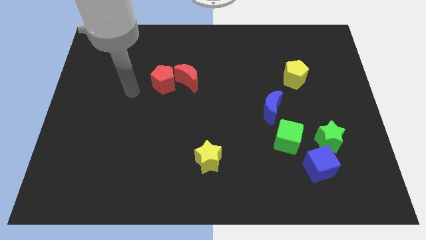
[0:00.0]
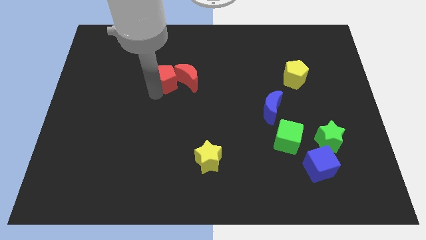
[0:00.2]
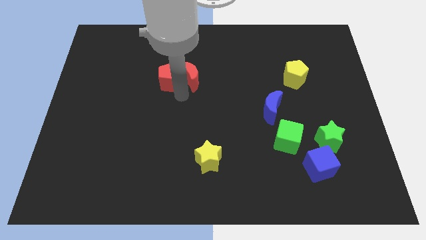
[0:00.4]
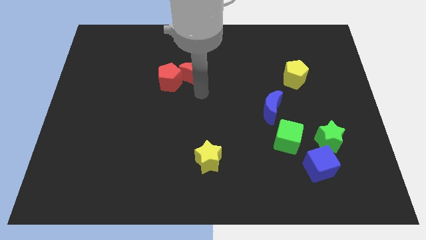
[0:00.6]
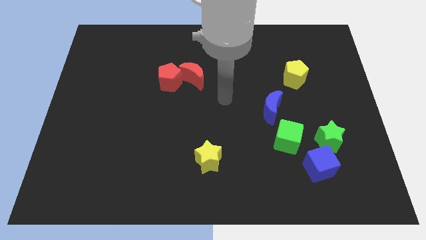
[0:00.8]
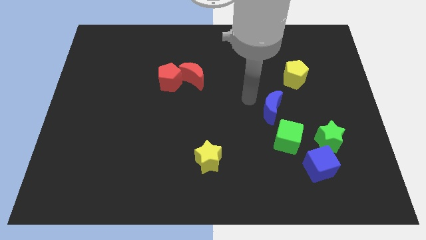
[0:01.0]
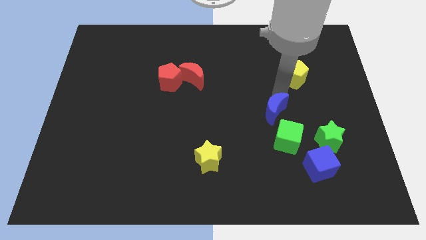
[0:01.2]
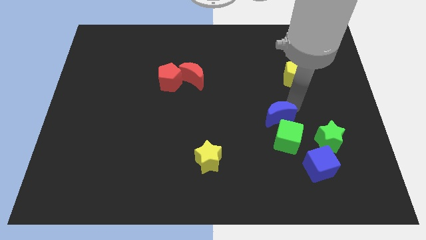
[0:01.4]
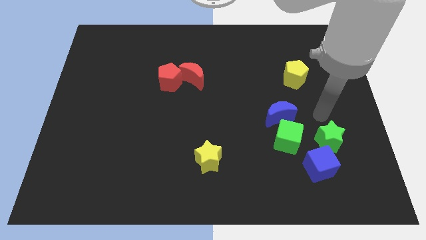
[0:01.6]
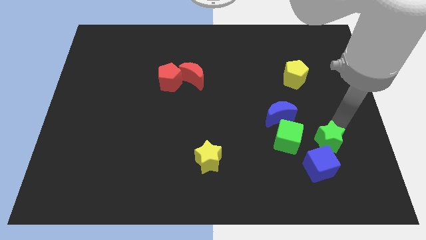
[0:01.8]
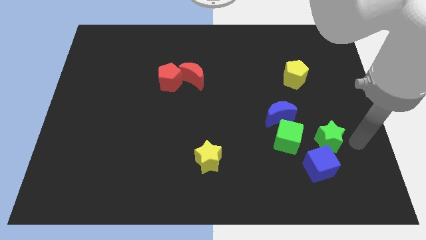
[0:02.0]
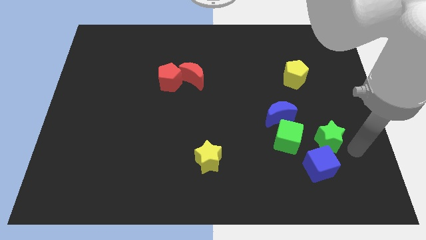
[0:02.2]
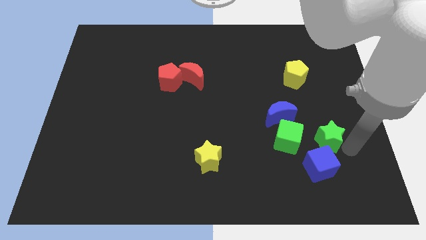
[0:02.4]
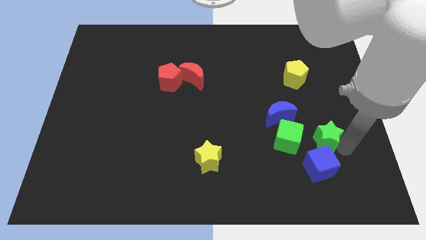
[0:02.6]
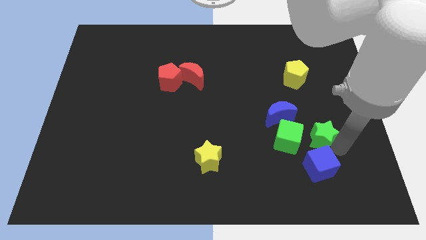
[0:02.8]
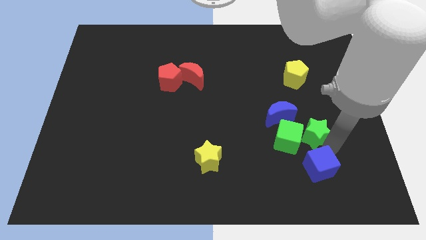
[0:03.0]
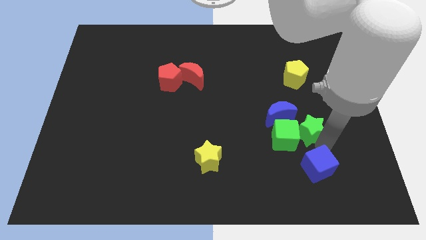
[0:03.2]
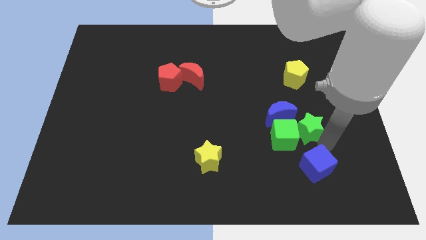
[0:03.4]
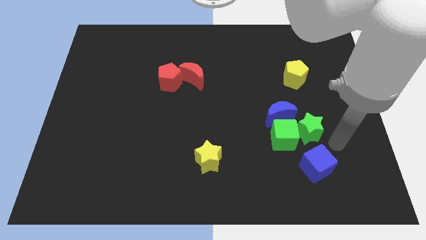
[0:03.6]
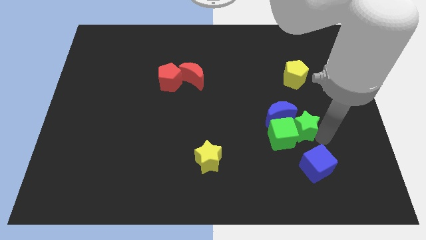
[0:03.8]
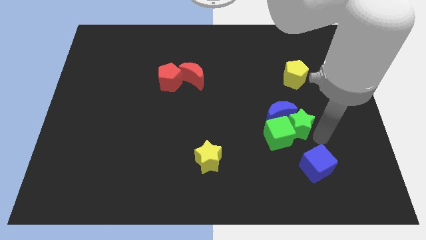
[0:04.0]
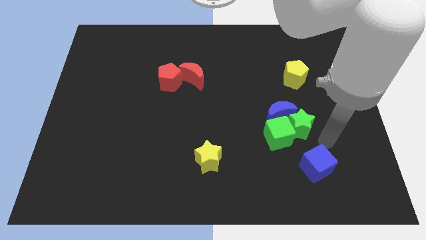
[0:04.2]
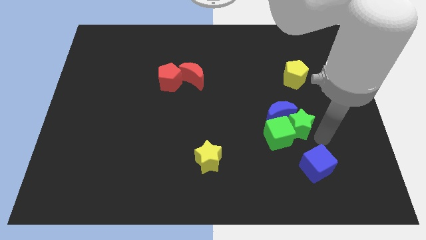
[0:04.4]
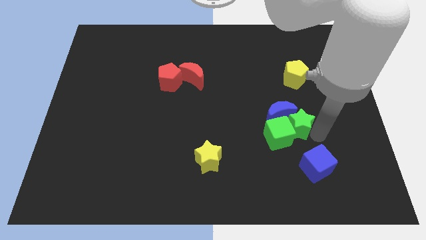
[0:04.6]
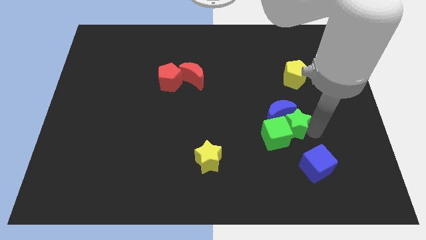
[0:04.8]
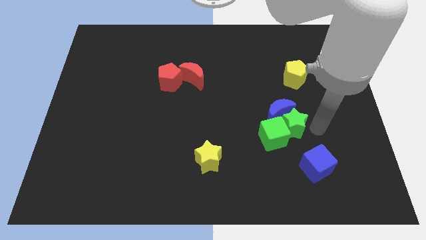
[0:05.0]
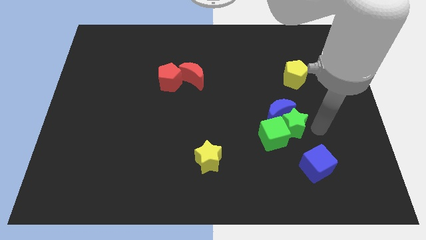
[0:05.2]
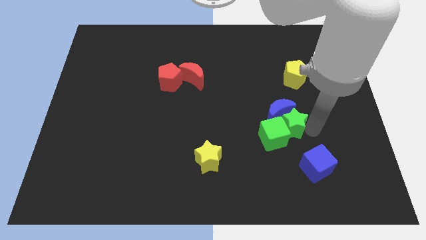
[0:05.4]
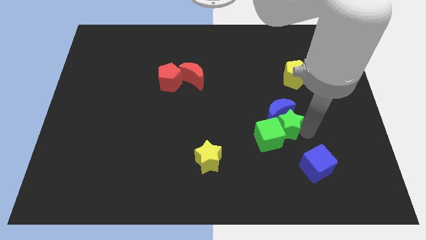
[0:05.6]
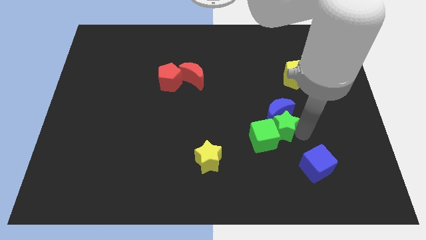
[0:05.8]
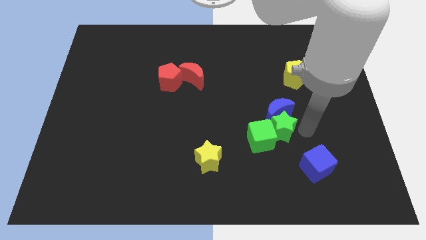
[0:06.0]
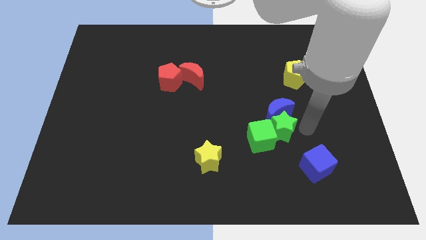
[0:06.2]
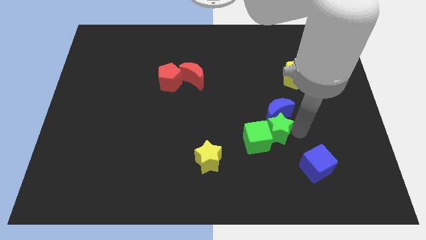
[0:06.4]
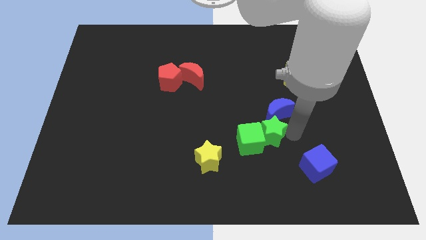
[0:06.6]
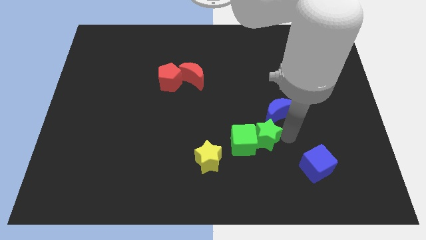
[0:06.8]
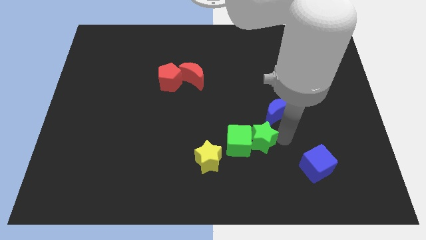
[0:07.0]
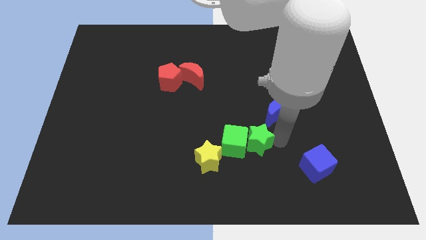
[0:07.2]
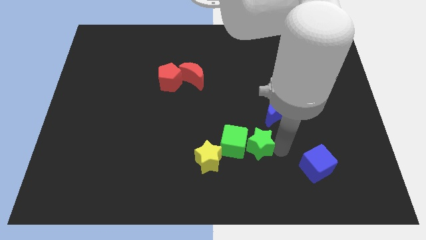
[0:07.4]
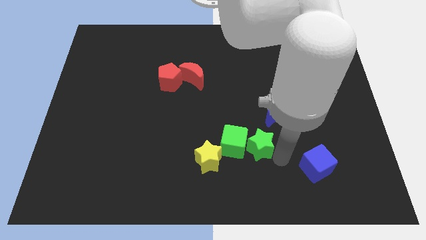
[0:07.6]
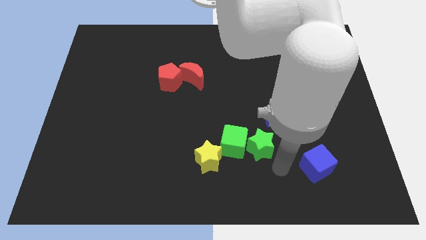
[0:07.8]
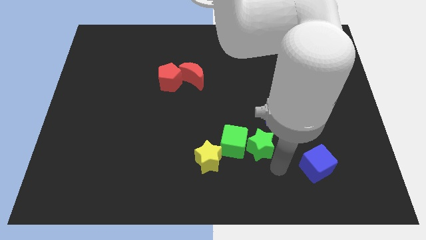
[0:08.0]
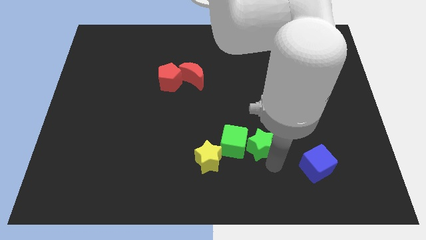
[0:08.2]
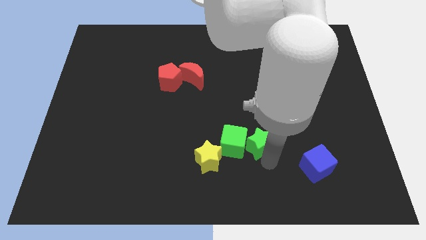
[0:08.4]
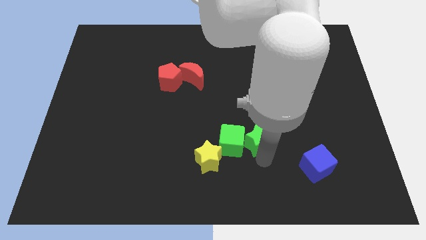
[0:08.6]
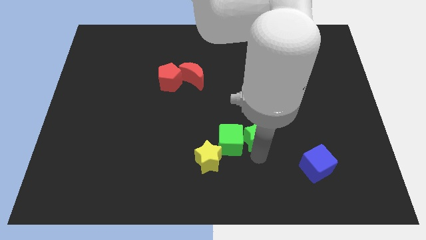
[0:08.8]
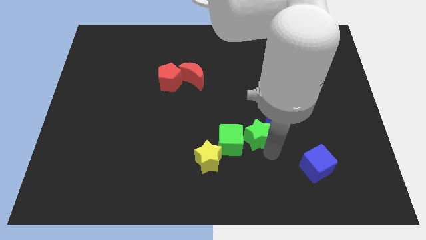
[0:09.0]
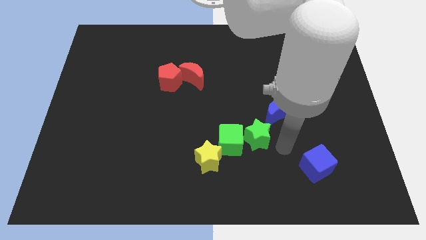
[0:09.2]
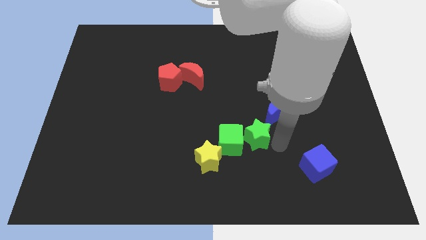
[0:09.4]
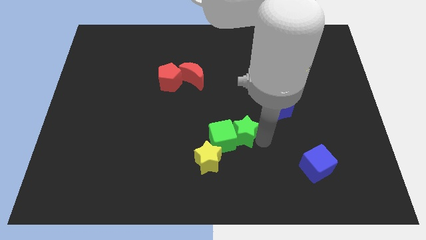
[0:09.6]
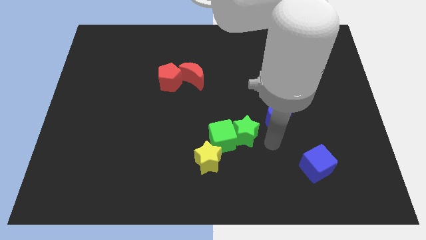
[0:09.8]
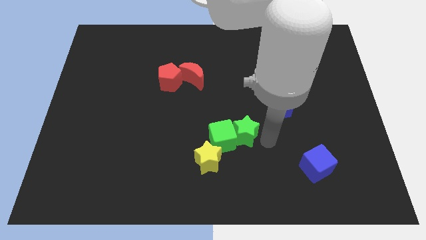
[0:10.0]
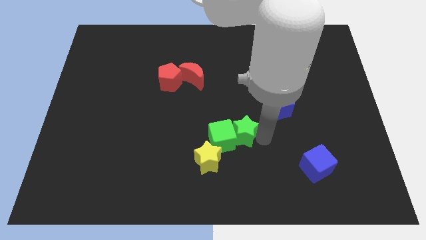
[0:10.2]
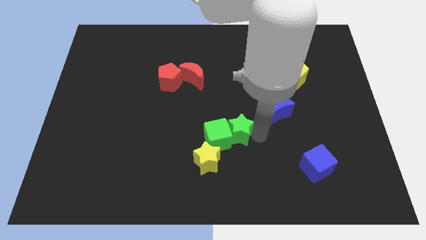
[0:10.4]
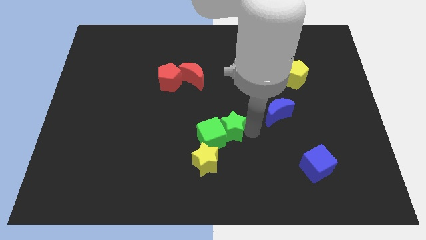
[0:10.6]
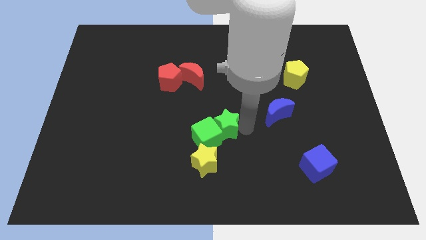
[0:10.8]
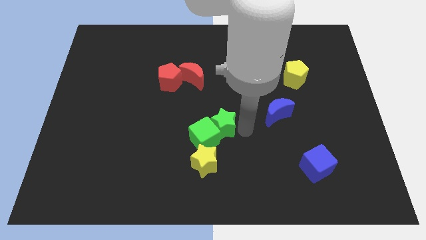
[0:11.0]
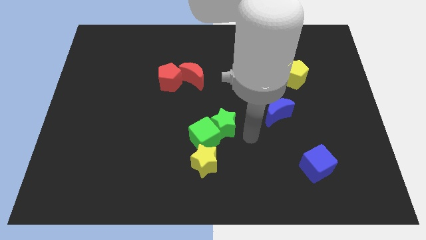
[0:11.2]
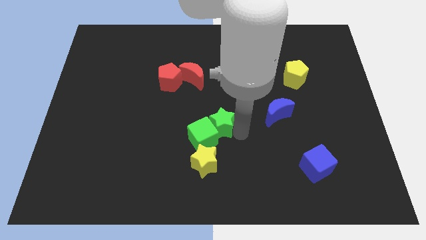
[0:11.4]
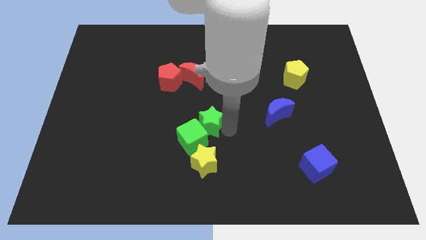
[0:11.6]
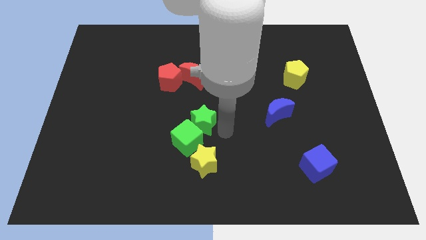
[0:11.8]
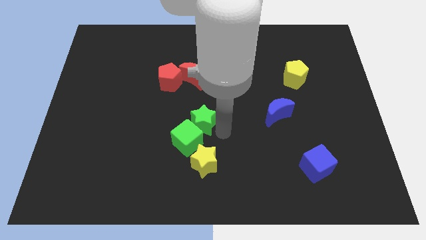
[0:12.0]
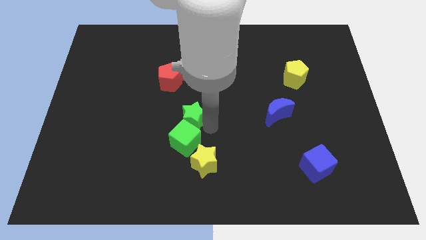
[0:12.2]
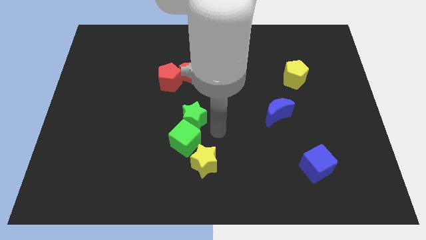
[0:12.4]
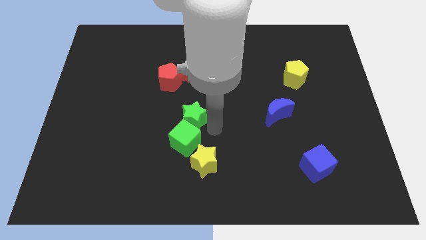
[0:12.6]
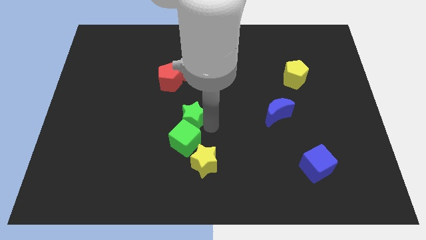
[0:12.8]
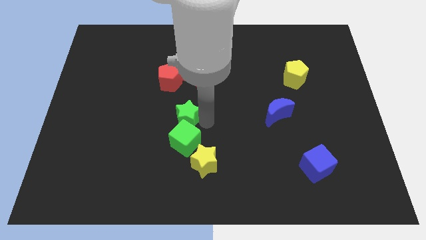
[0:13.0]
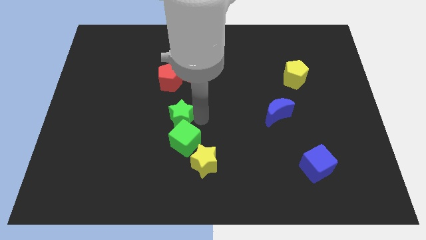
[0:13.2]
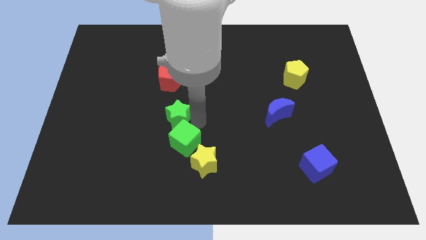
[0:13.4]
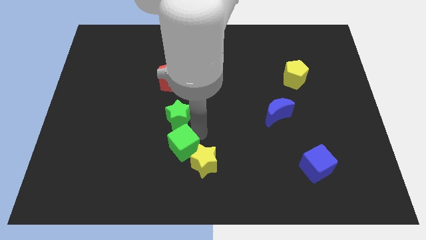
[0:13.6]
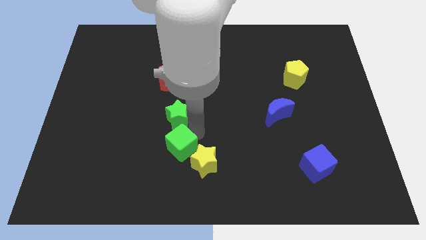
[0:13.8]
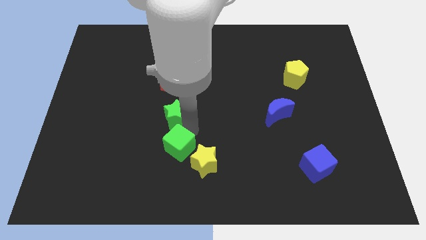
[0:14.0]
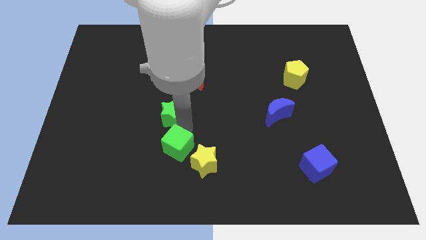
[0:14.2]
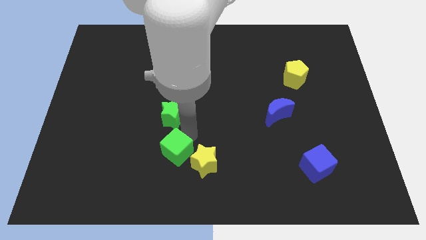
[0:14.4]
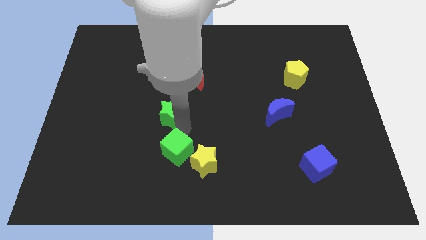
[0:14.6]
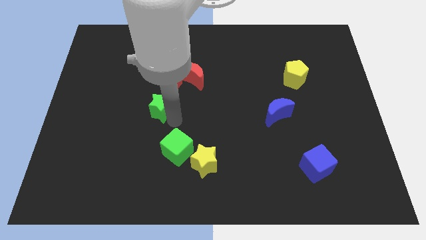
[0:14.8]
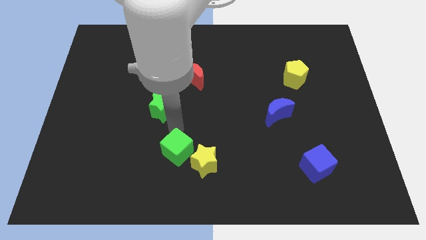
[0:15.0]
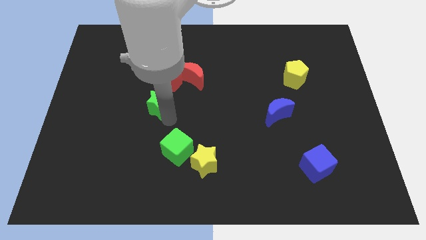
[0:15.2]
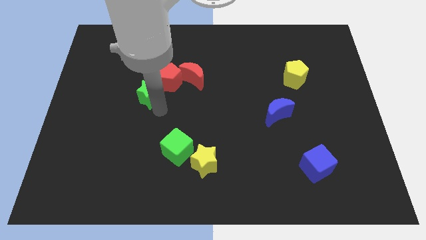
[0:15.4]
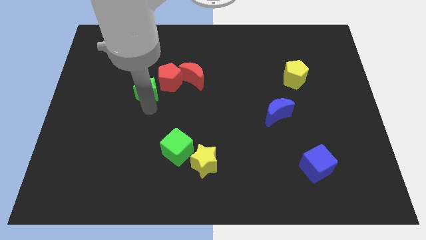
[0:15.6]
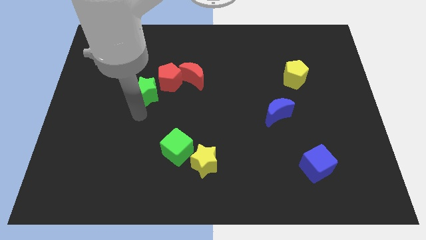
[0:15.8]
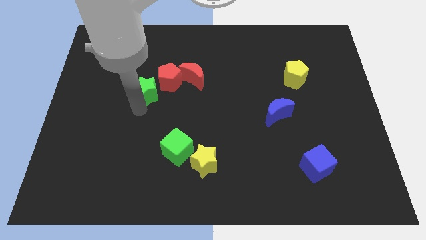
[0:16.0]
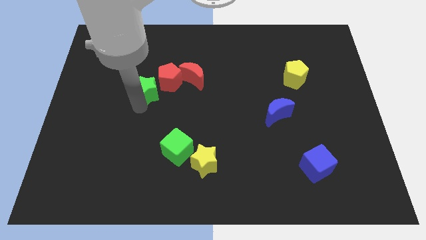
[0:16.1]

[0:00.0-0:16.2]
put the green star just left of the red moon
